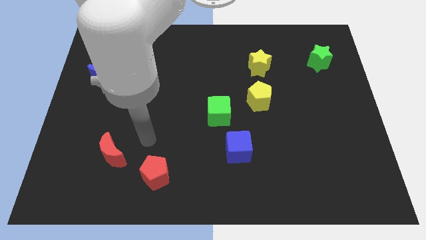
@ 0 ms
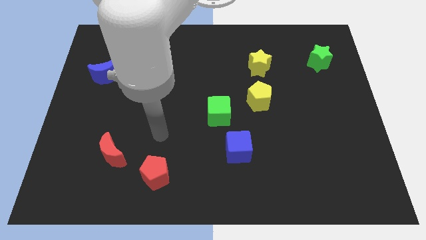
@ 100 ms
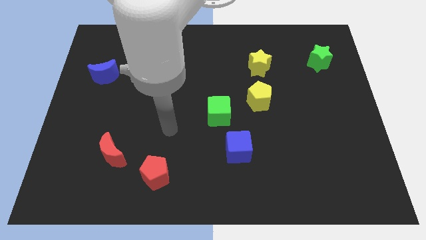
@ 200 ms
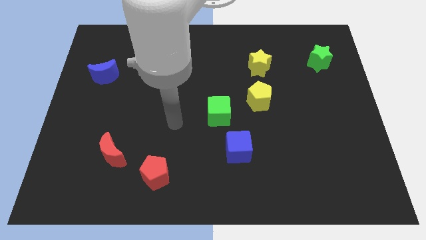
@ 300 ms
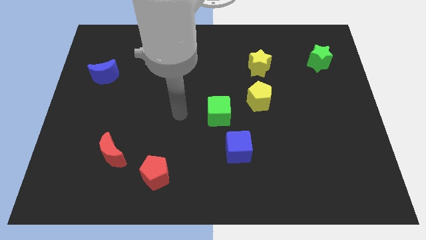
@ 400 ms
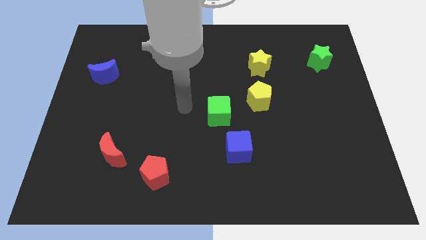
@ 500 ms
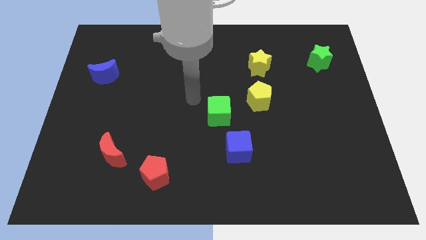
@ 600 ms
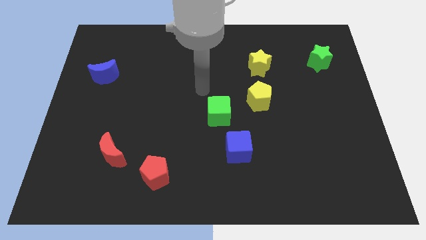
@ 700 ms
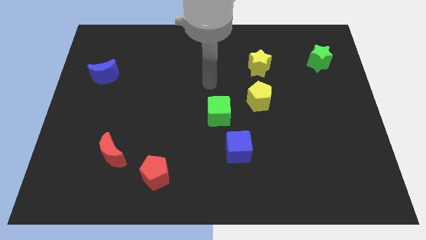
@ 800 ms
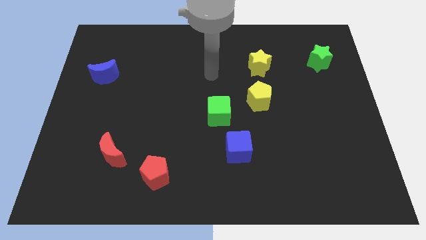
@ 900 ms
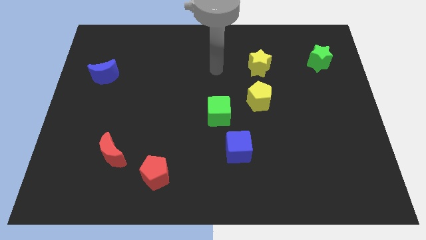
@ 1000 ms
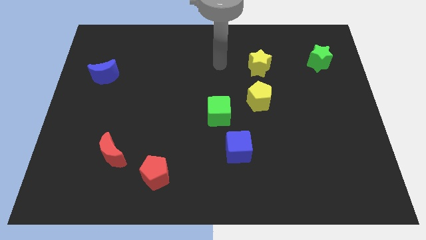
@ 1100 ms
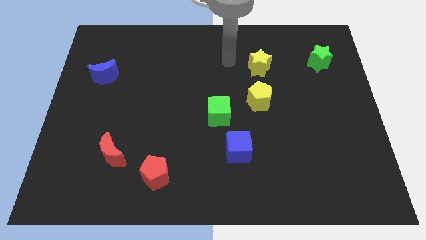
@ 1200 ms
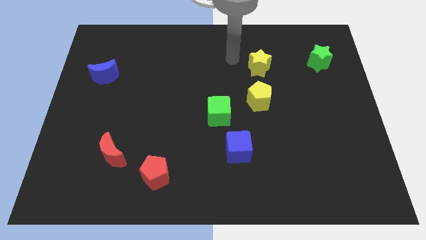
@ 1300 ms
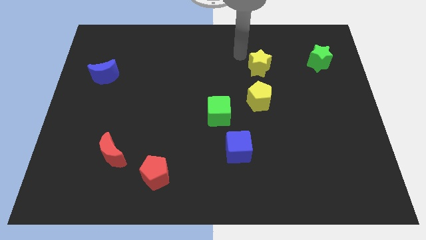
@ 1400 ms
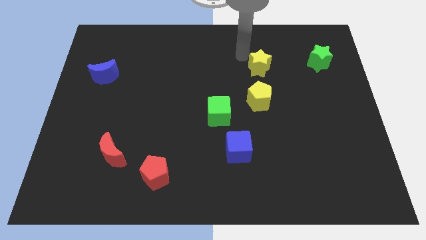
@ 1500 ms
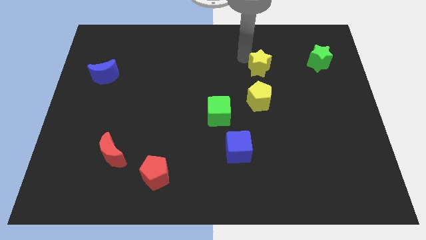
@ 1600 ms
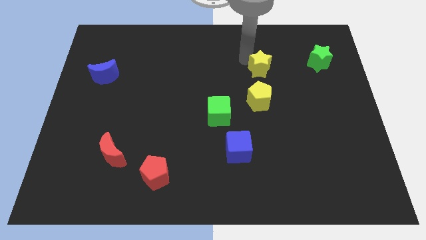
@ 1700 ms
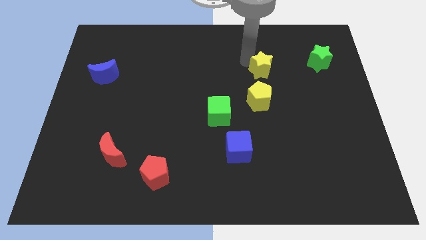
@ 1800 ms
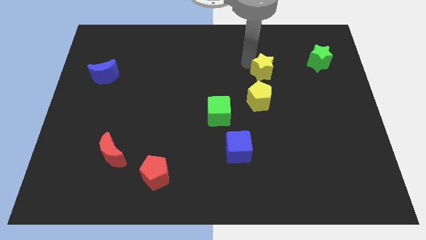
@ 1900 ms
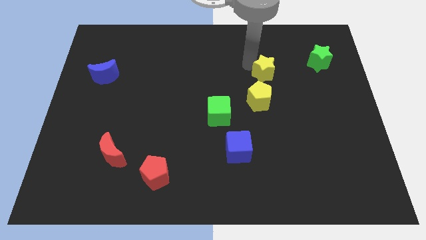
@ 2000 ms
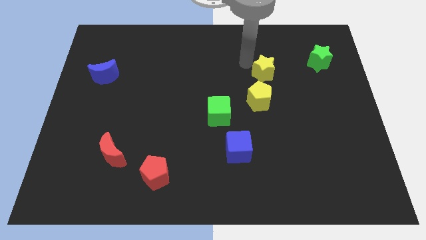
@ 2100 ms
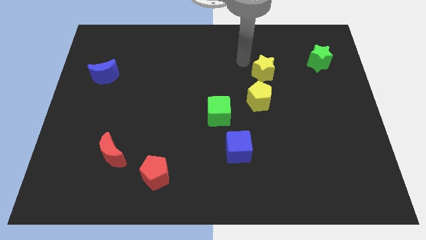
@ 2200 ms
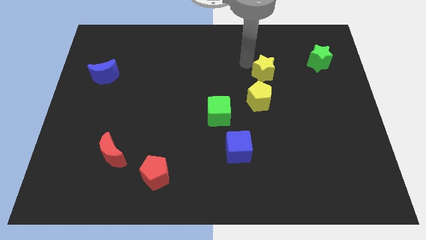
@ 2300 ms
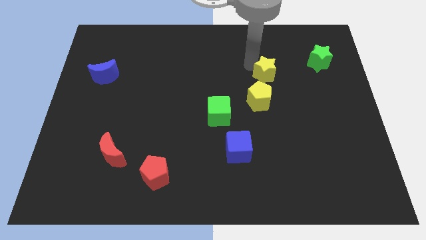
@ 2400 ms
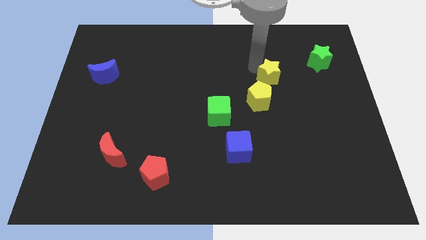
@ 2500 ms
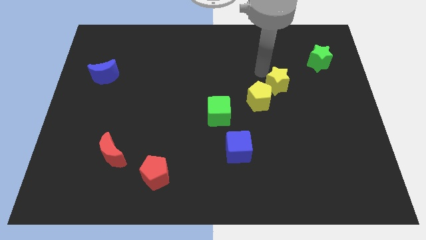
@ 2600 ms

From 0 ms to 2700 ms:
slightly push the yellow star downwards and to the right diagonally

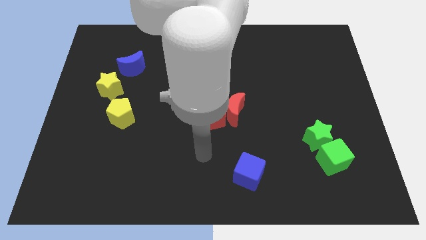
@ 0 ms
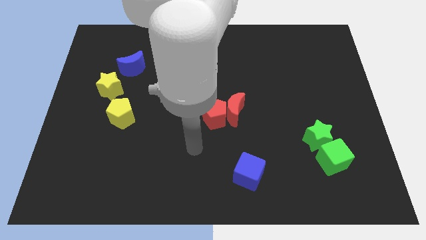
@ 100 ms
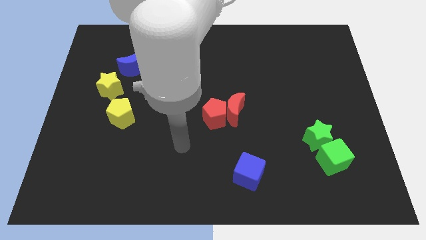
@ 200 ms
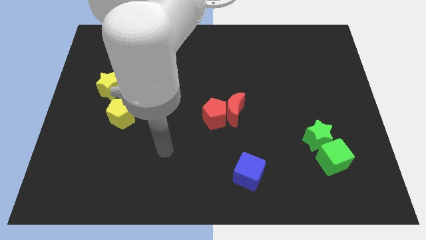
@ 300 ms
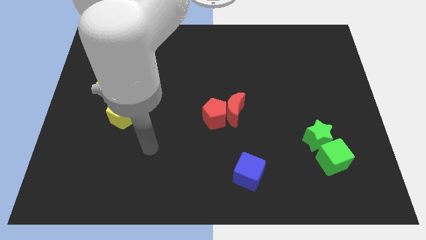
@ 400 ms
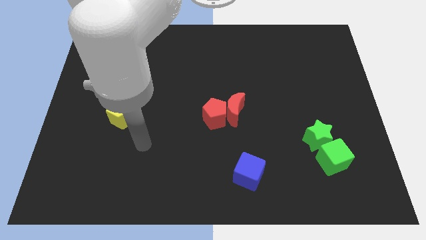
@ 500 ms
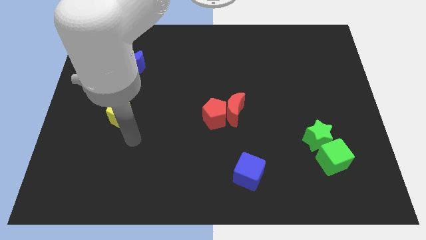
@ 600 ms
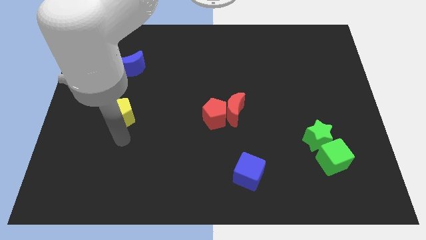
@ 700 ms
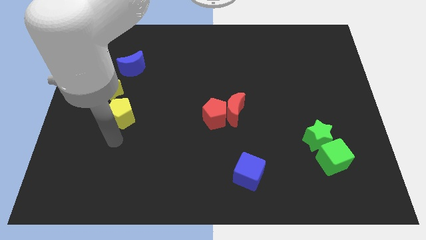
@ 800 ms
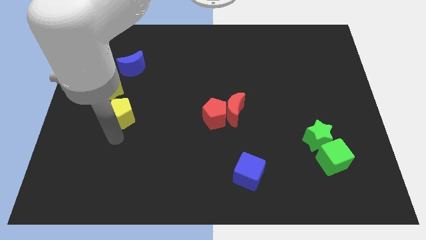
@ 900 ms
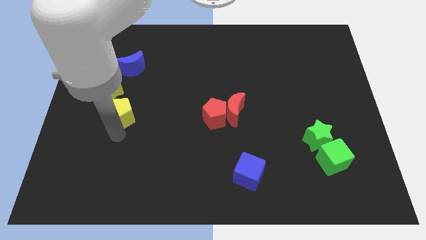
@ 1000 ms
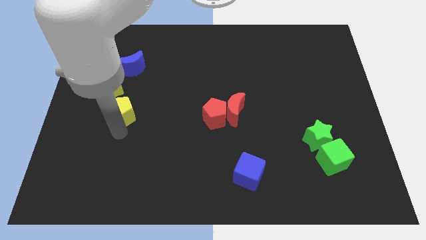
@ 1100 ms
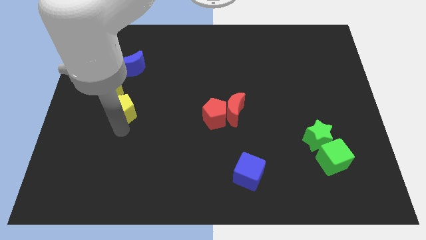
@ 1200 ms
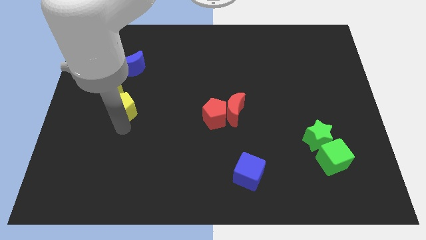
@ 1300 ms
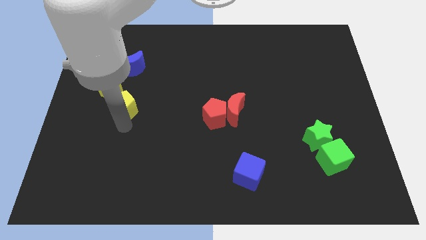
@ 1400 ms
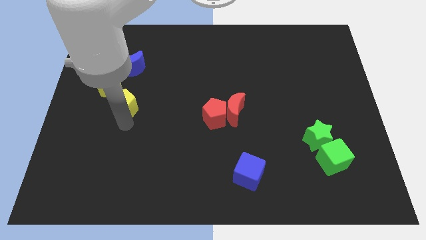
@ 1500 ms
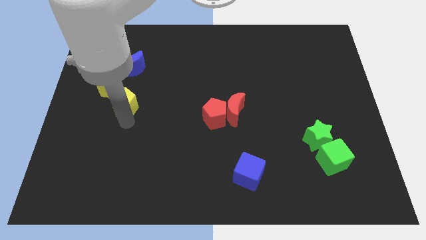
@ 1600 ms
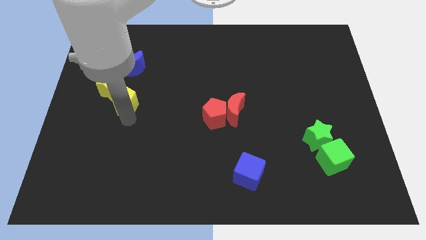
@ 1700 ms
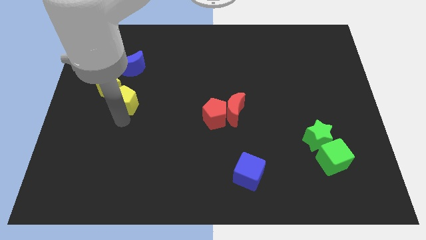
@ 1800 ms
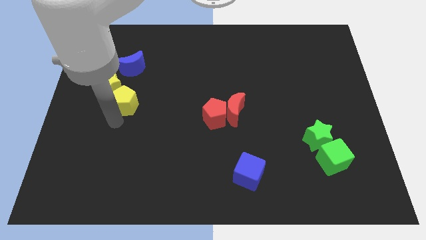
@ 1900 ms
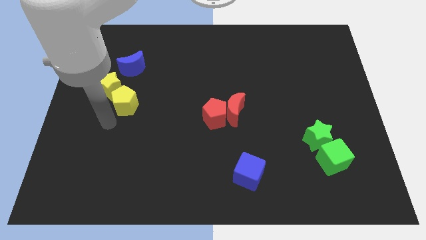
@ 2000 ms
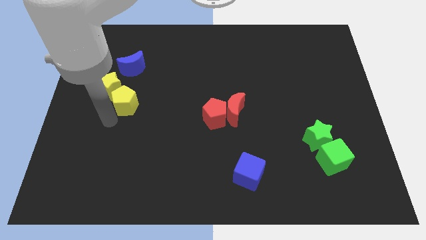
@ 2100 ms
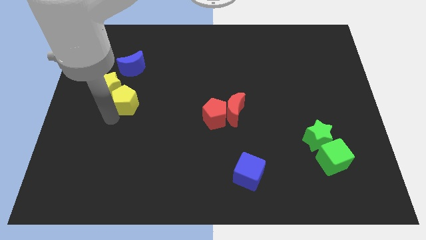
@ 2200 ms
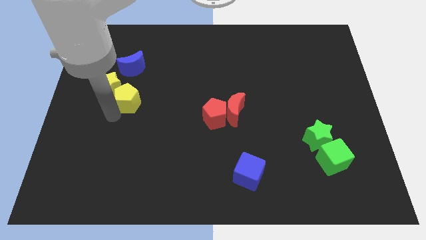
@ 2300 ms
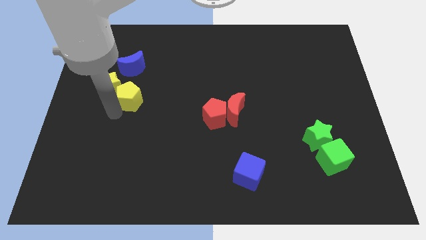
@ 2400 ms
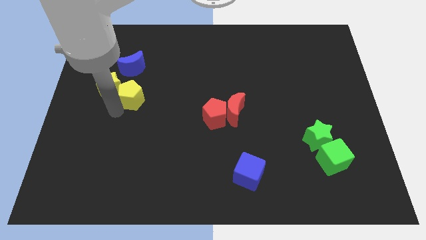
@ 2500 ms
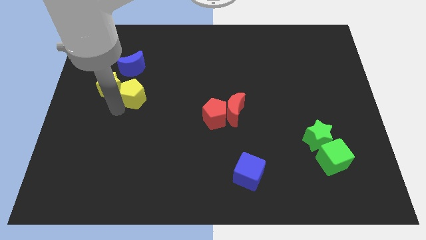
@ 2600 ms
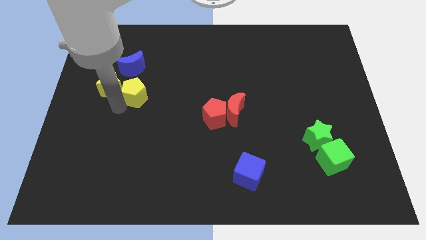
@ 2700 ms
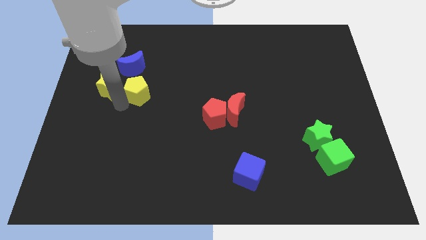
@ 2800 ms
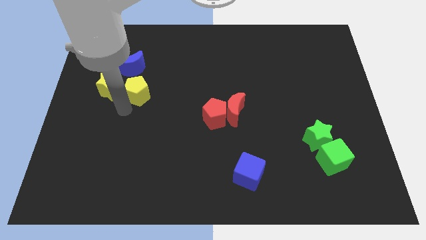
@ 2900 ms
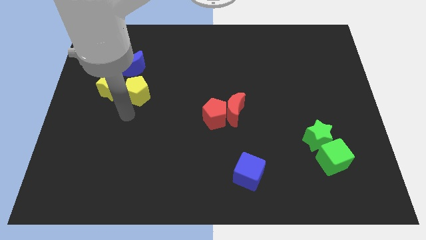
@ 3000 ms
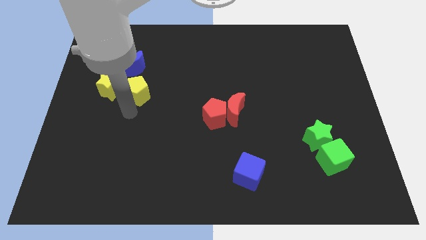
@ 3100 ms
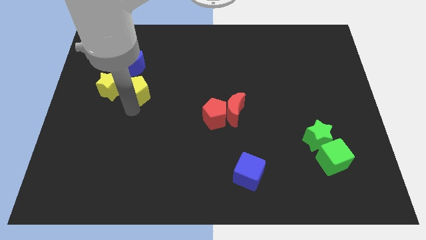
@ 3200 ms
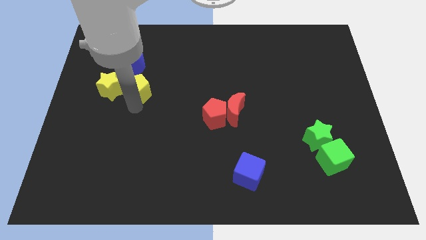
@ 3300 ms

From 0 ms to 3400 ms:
slide the yellow pentagon a bit up

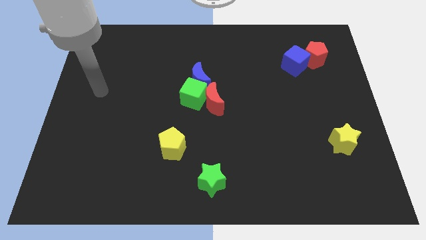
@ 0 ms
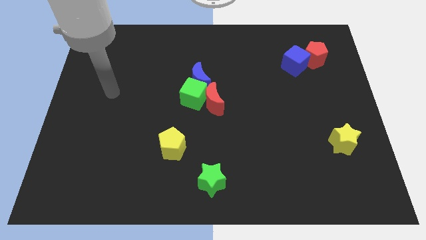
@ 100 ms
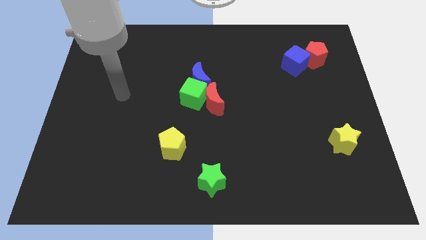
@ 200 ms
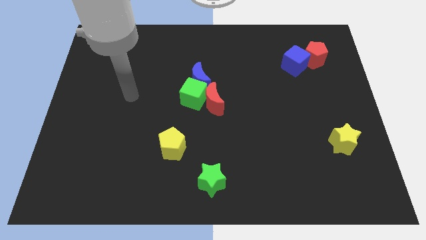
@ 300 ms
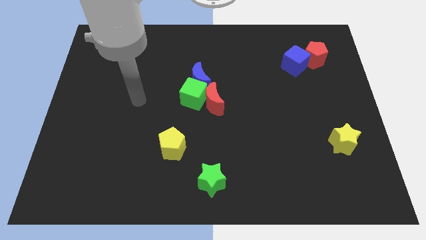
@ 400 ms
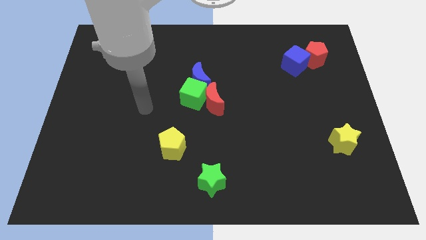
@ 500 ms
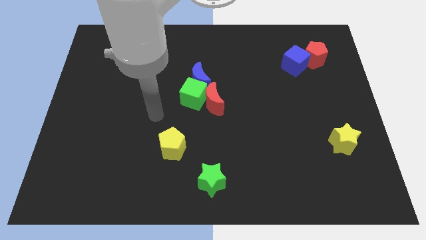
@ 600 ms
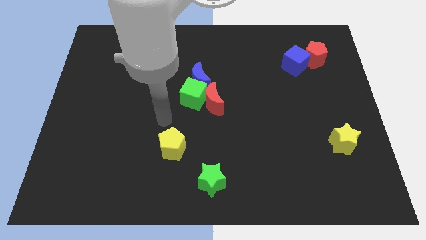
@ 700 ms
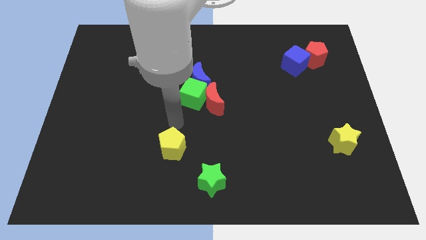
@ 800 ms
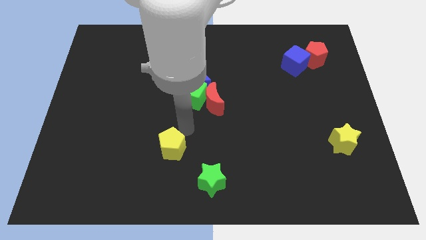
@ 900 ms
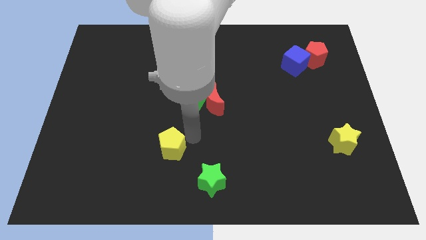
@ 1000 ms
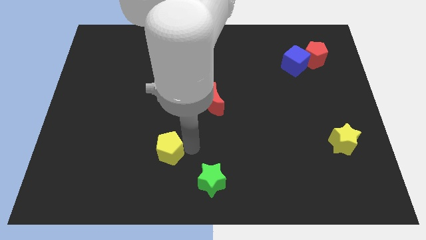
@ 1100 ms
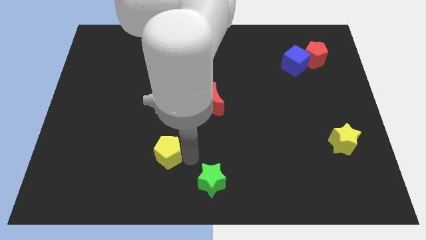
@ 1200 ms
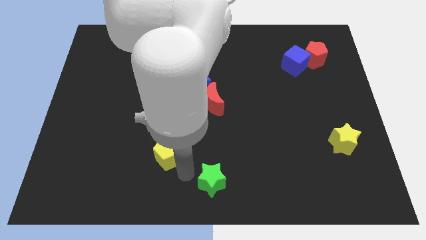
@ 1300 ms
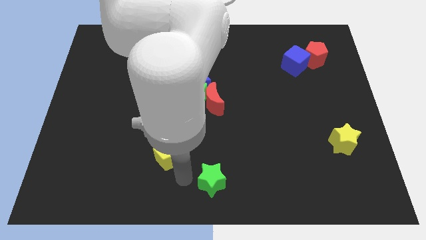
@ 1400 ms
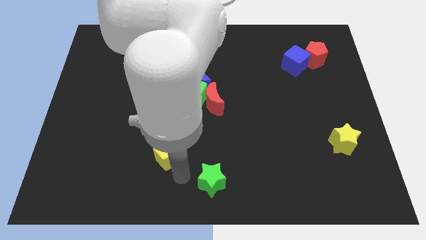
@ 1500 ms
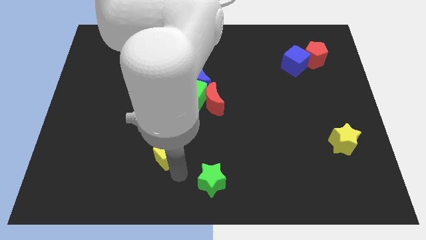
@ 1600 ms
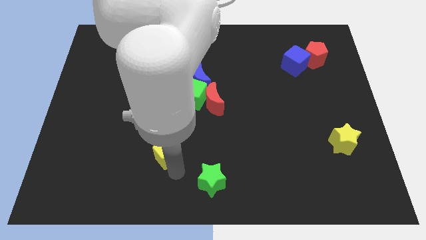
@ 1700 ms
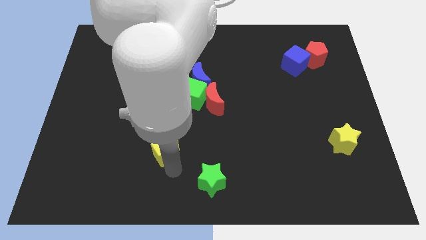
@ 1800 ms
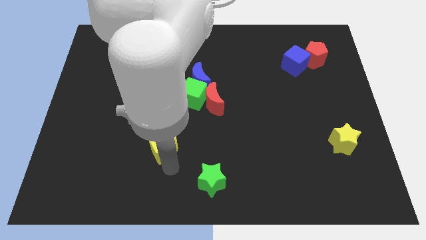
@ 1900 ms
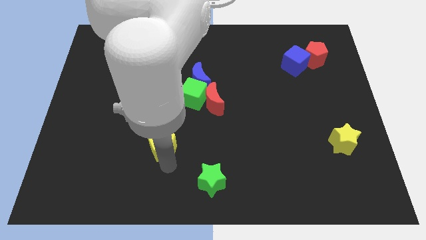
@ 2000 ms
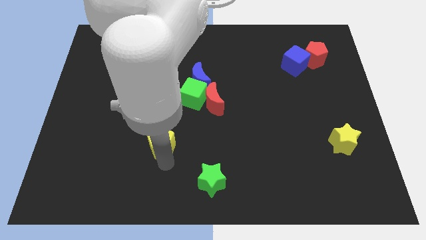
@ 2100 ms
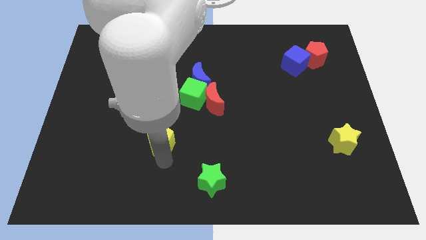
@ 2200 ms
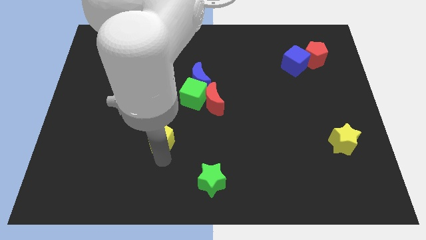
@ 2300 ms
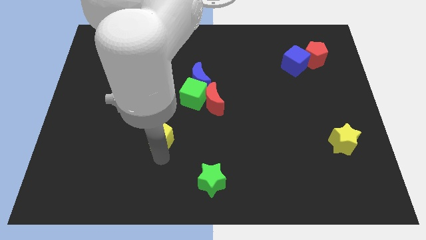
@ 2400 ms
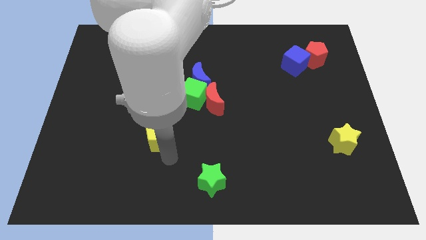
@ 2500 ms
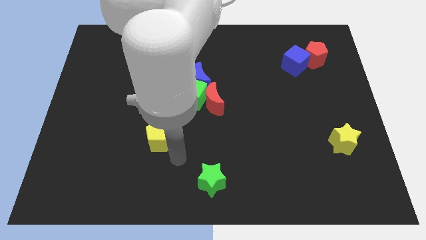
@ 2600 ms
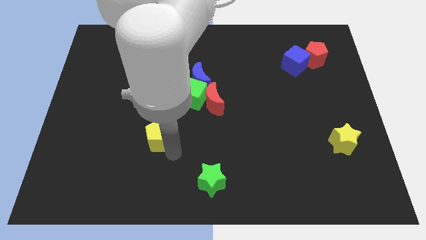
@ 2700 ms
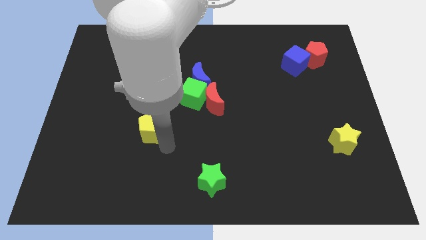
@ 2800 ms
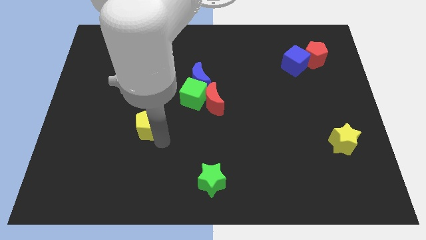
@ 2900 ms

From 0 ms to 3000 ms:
slightly push the yellow pentagon upwards and left diagonally
